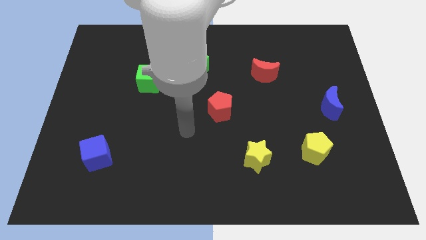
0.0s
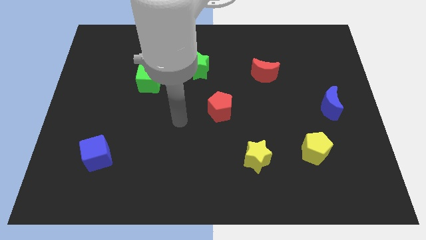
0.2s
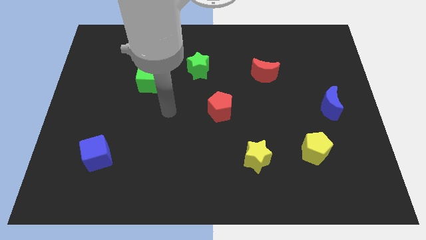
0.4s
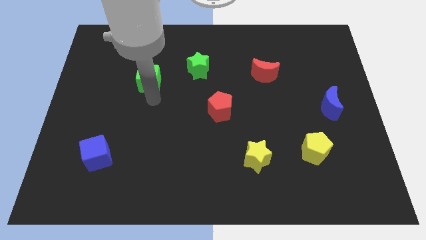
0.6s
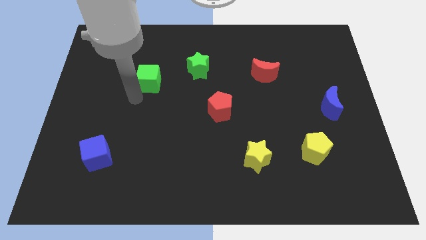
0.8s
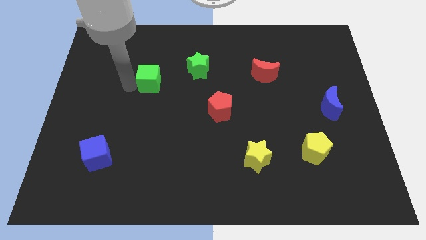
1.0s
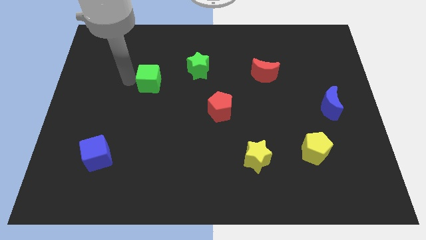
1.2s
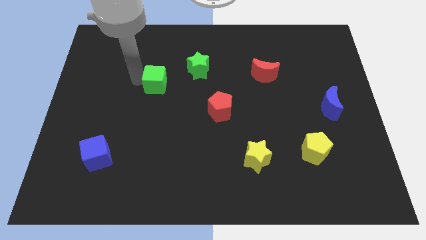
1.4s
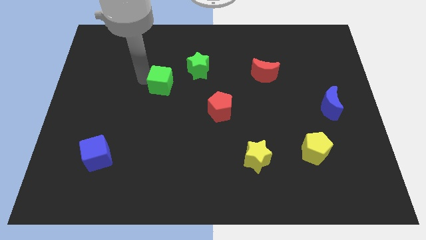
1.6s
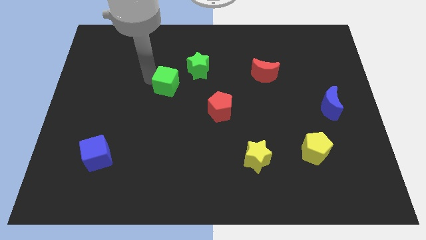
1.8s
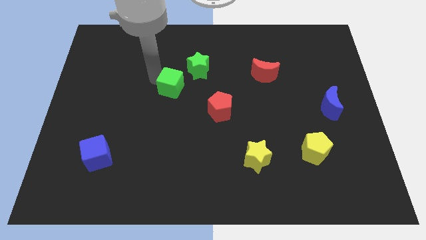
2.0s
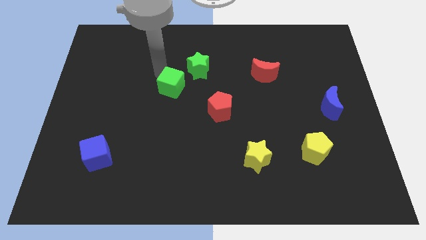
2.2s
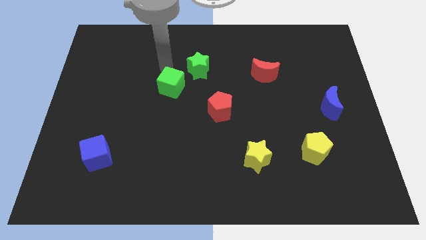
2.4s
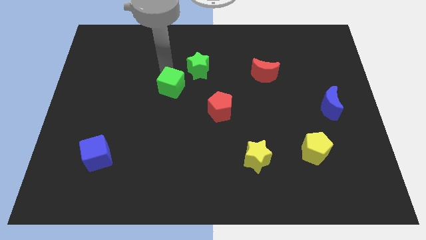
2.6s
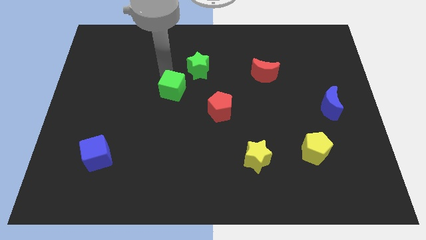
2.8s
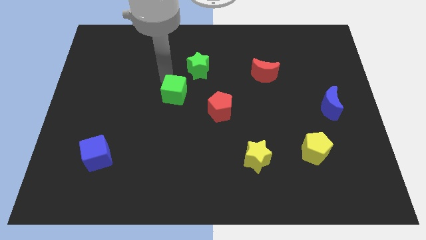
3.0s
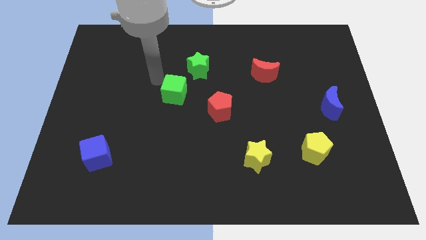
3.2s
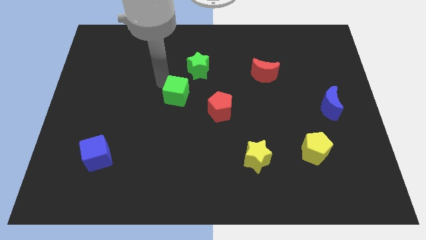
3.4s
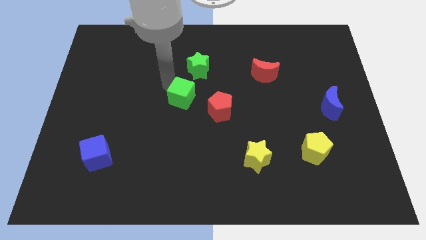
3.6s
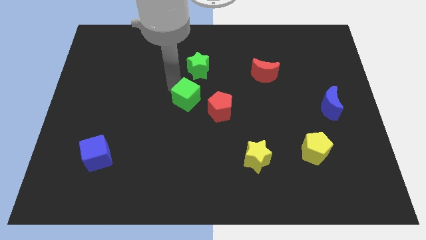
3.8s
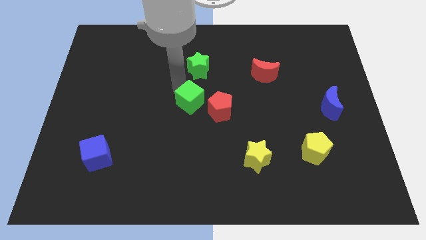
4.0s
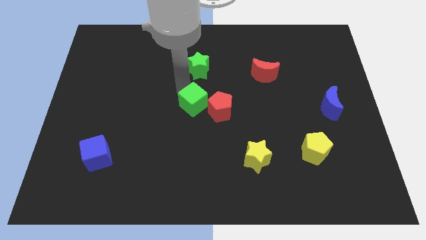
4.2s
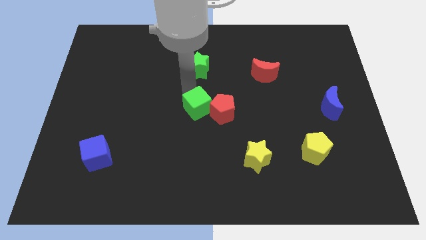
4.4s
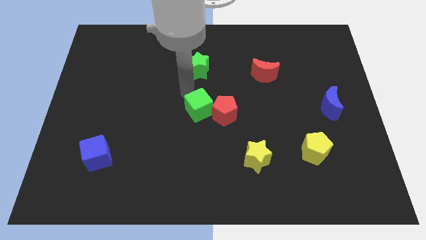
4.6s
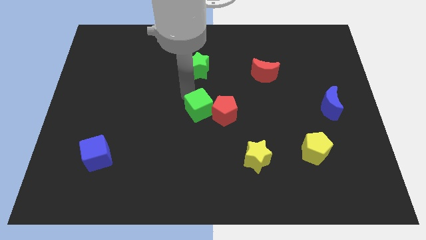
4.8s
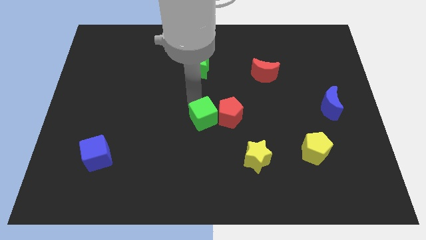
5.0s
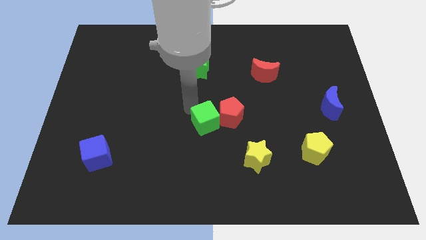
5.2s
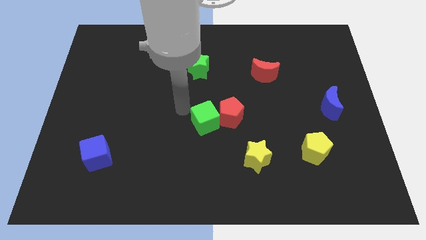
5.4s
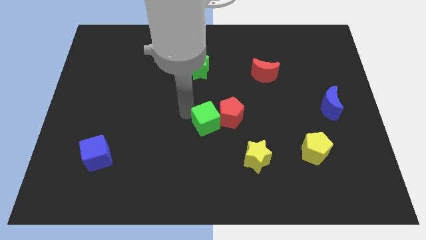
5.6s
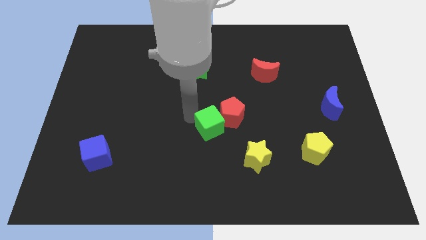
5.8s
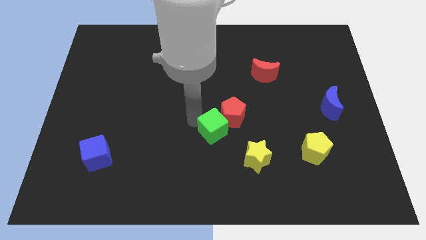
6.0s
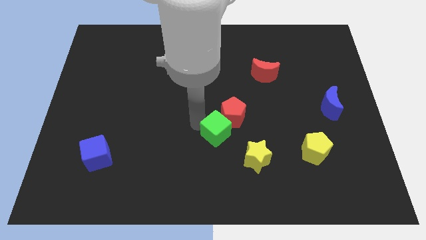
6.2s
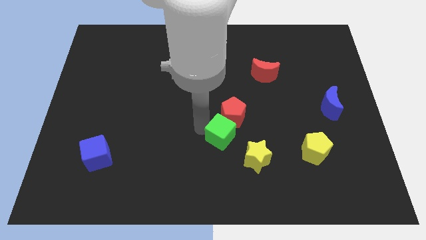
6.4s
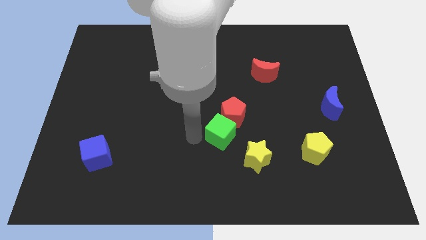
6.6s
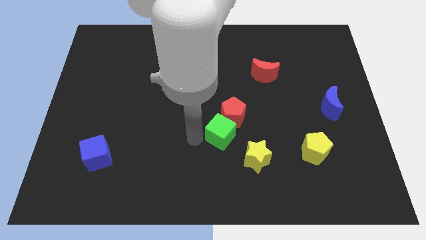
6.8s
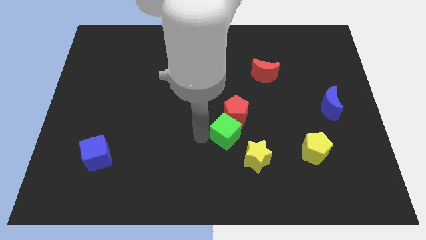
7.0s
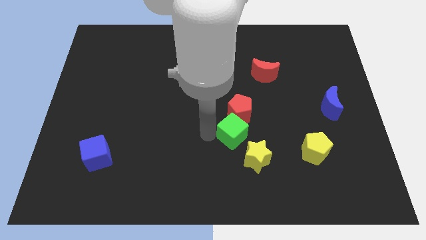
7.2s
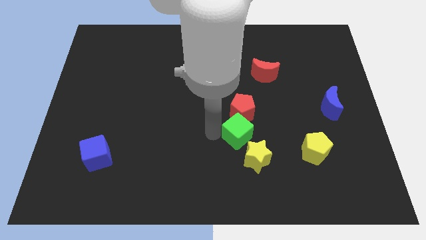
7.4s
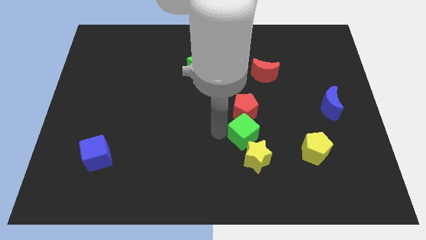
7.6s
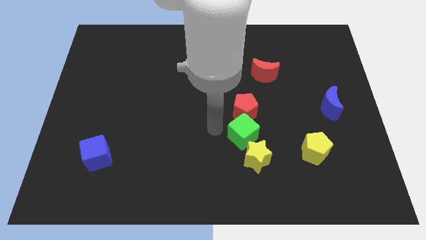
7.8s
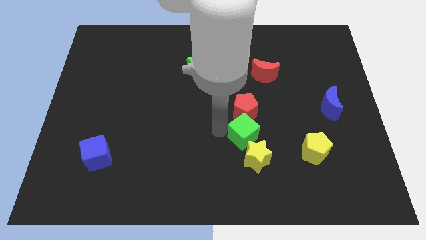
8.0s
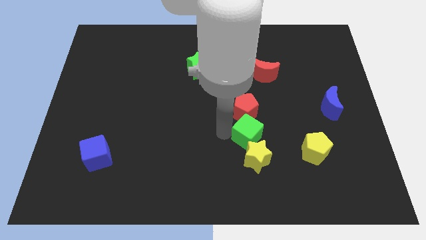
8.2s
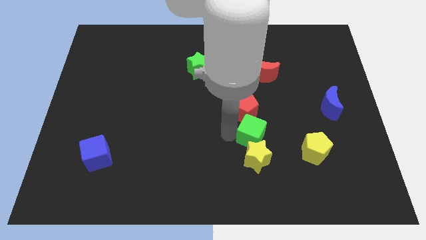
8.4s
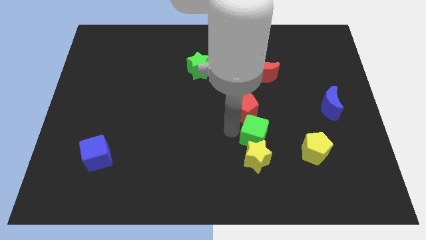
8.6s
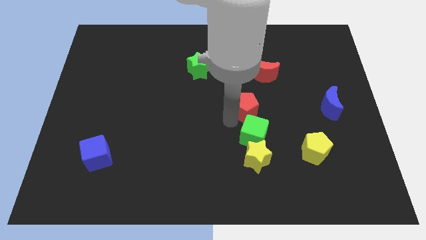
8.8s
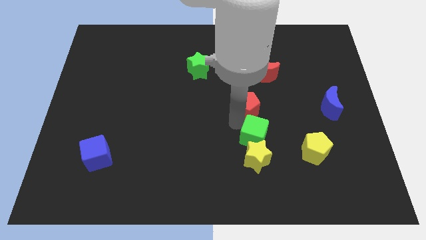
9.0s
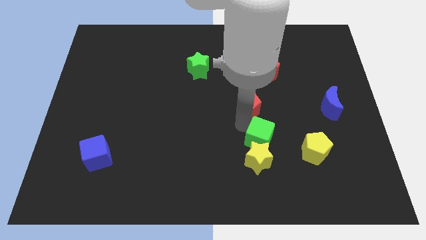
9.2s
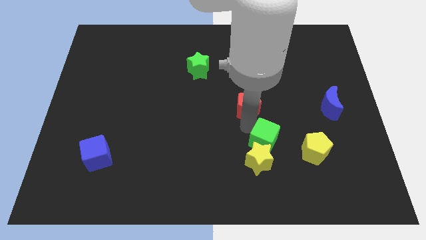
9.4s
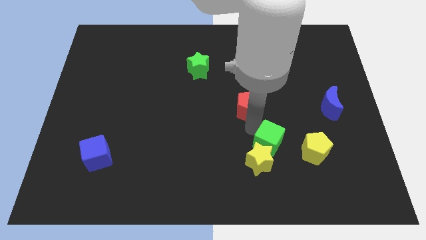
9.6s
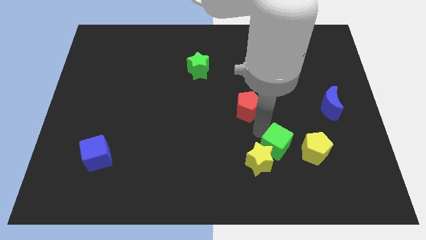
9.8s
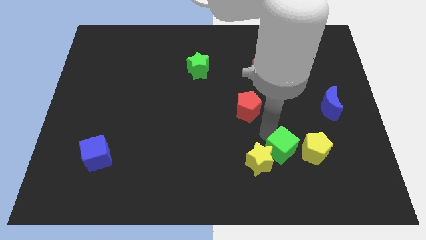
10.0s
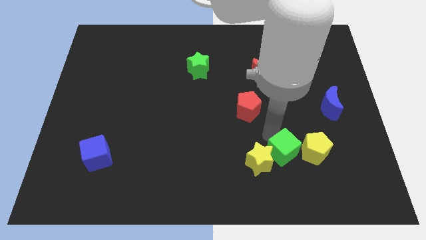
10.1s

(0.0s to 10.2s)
move the green cube diagonally down and to the left of the yellow pentagon

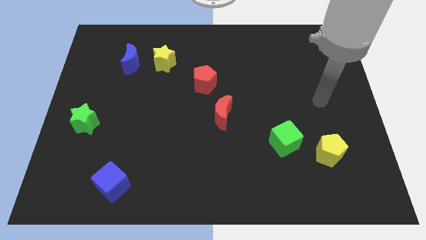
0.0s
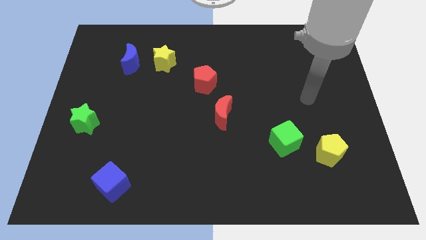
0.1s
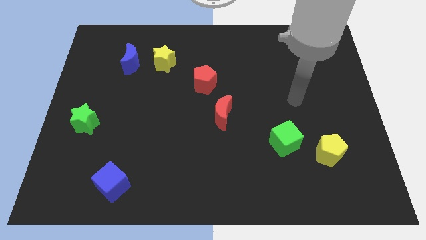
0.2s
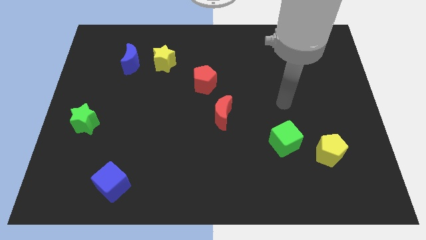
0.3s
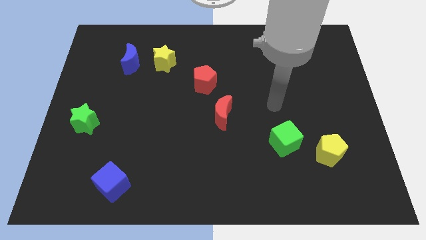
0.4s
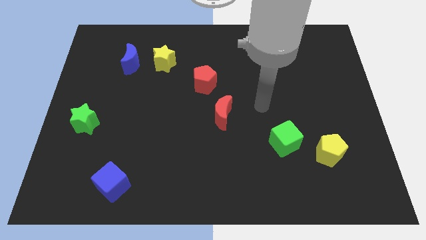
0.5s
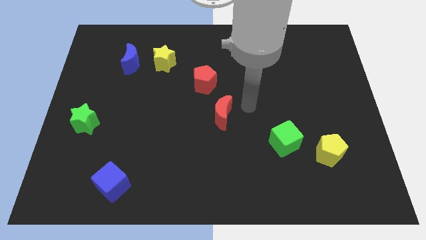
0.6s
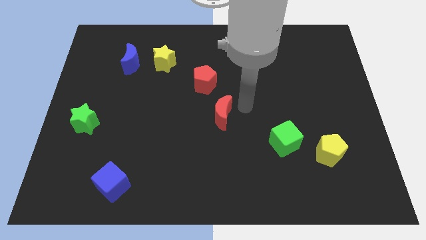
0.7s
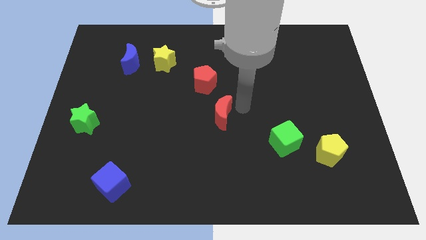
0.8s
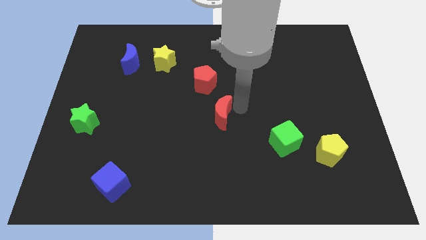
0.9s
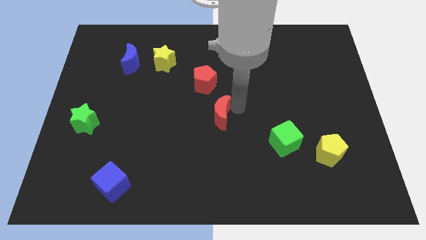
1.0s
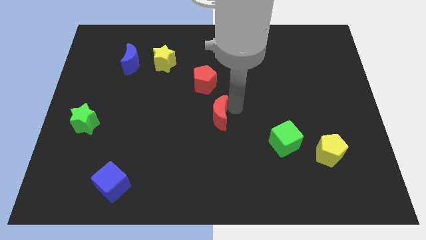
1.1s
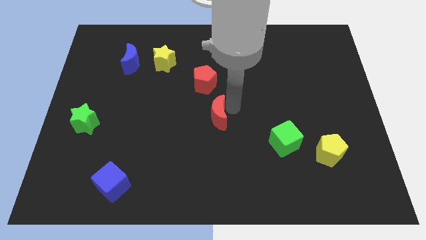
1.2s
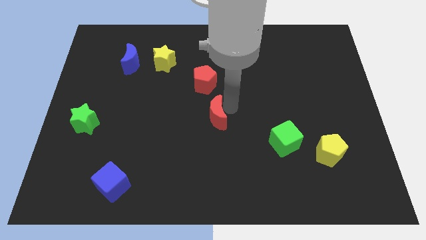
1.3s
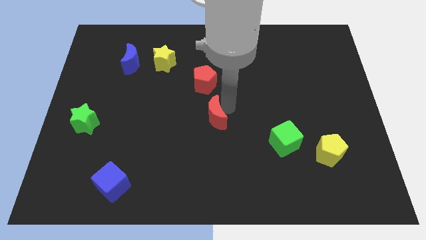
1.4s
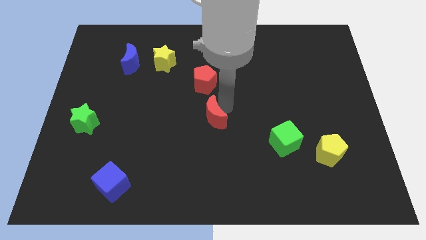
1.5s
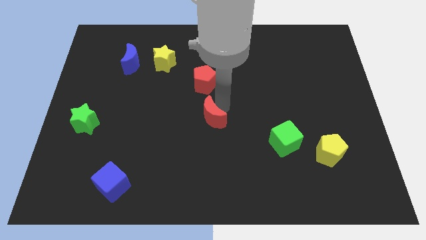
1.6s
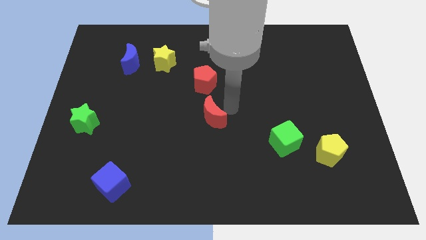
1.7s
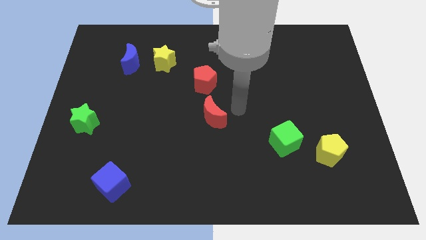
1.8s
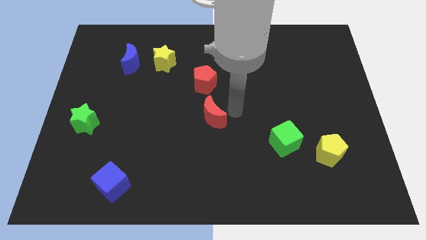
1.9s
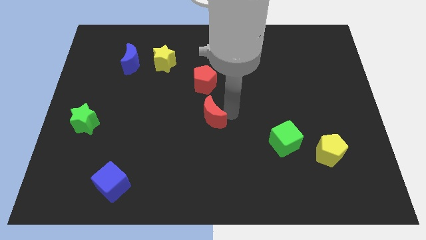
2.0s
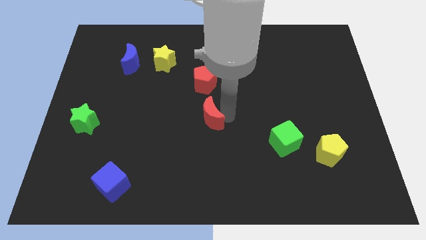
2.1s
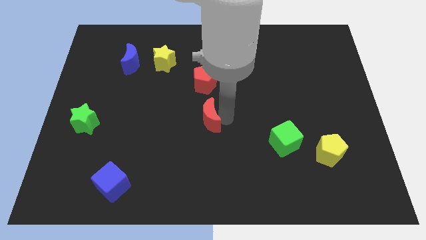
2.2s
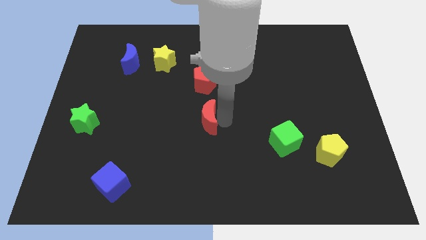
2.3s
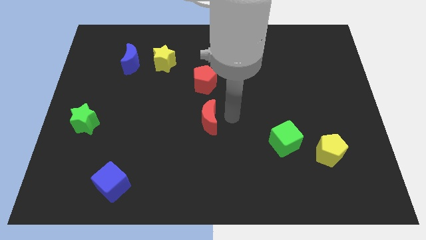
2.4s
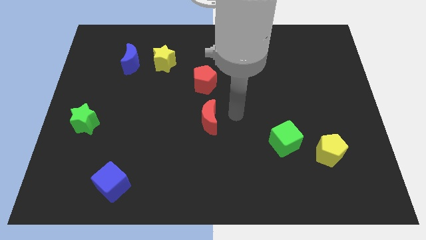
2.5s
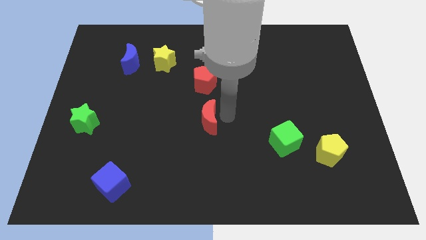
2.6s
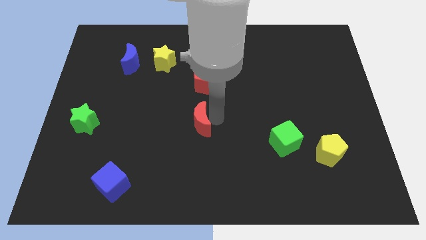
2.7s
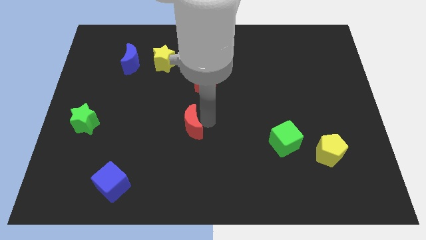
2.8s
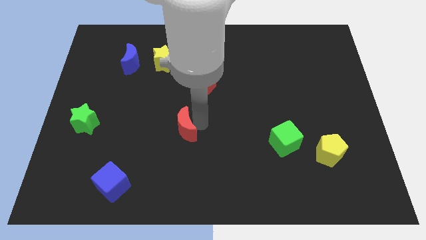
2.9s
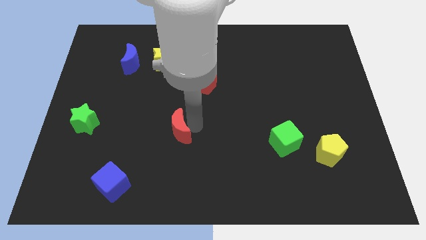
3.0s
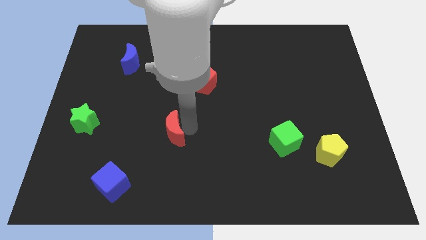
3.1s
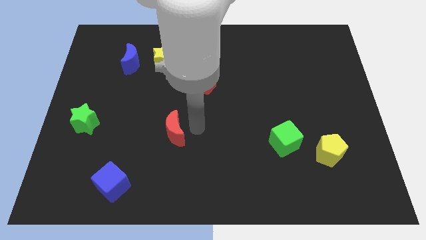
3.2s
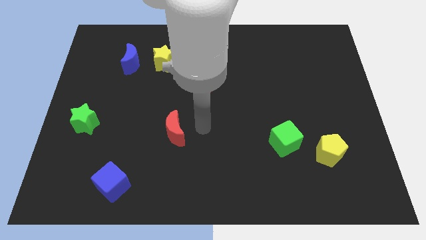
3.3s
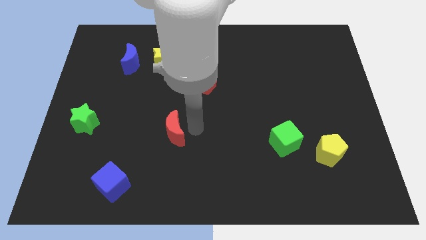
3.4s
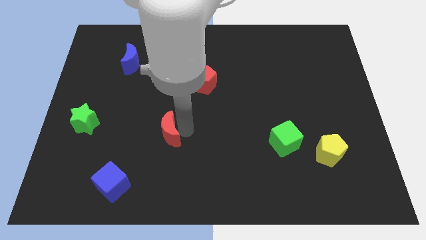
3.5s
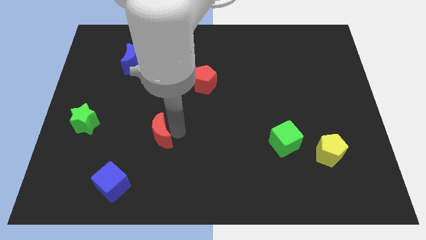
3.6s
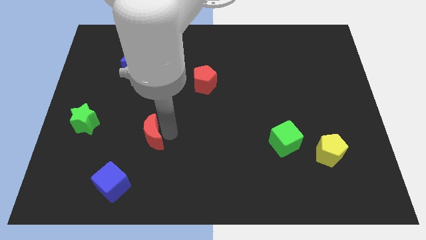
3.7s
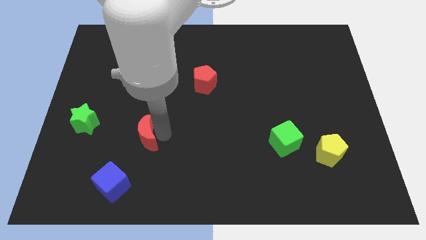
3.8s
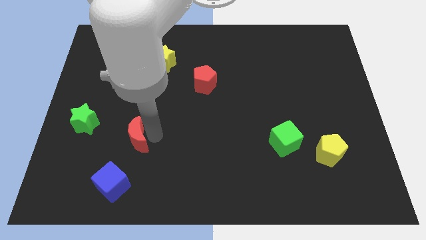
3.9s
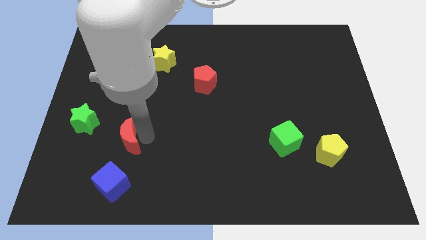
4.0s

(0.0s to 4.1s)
put the red moon to the bottom right of the green star
